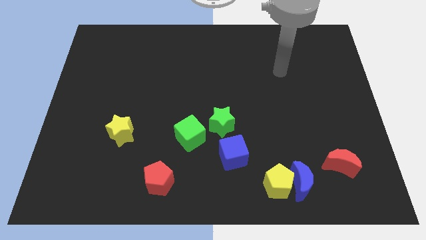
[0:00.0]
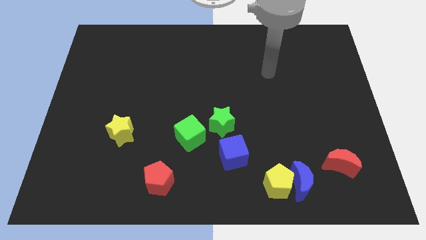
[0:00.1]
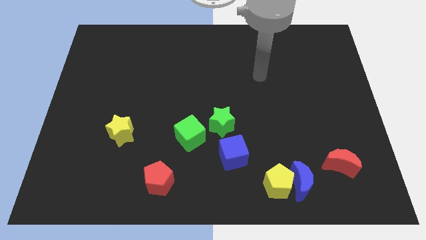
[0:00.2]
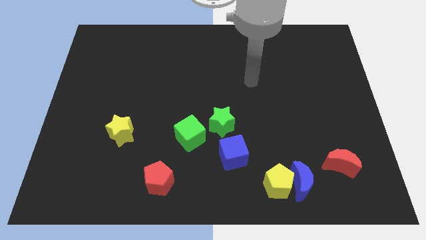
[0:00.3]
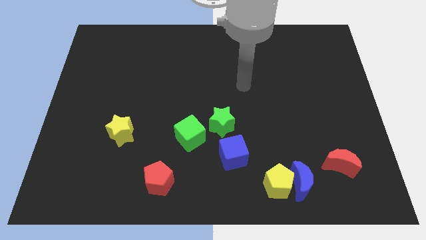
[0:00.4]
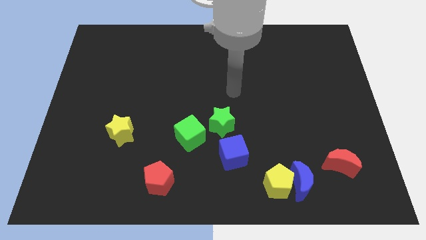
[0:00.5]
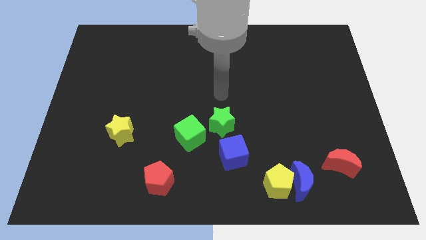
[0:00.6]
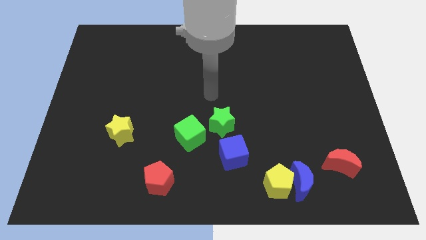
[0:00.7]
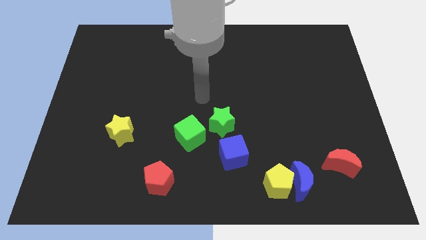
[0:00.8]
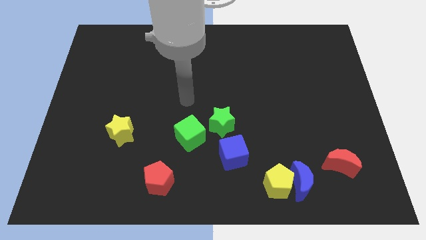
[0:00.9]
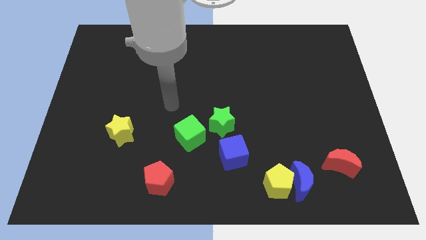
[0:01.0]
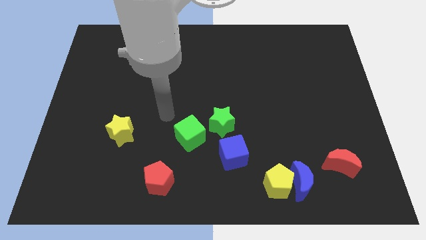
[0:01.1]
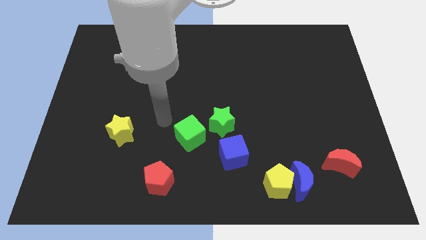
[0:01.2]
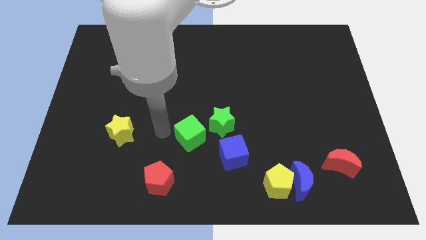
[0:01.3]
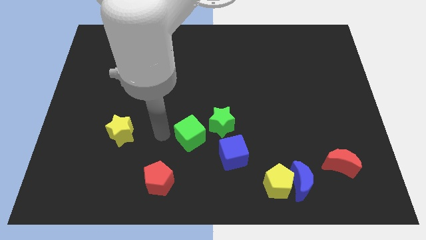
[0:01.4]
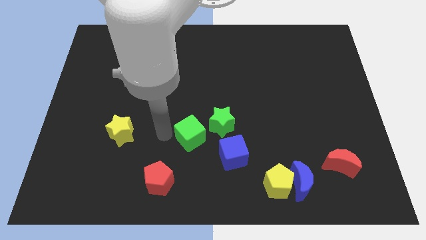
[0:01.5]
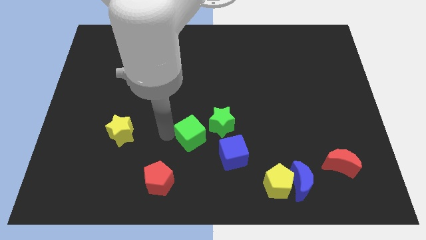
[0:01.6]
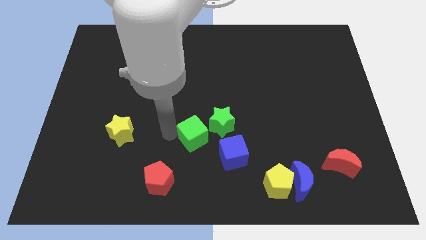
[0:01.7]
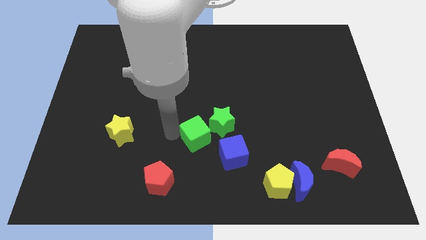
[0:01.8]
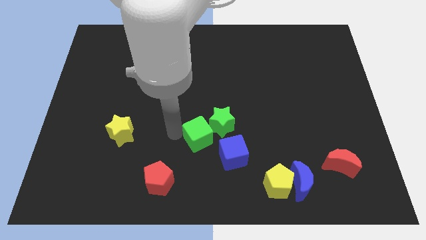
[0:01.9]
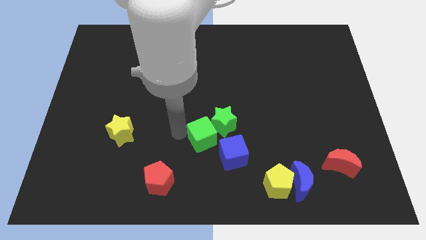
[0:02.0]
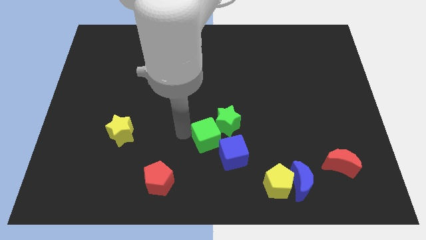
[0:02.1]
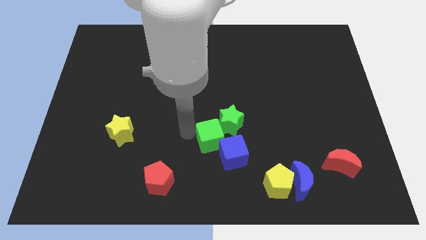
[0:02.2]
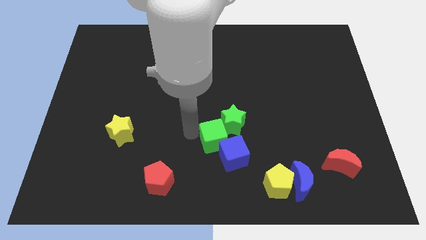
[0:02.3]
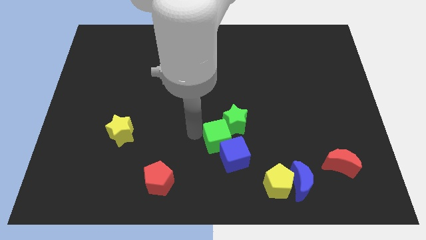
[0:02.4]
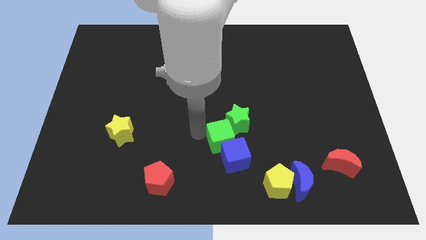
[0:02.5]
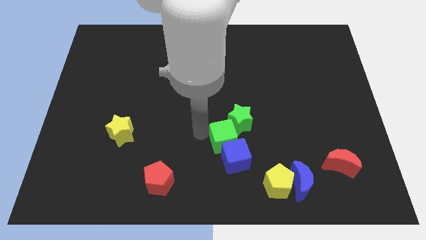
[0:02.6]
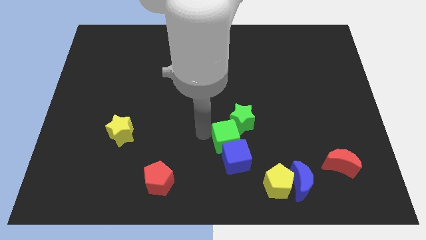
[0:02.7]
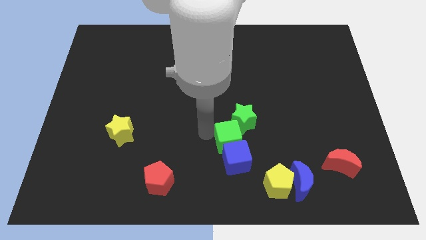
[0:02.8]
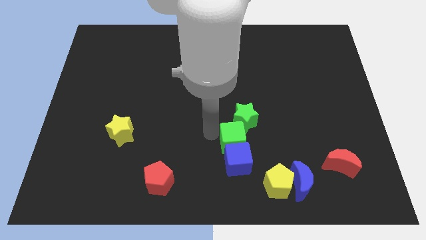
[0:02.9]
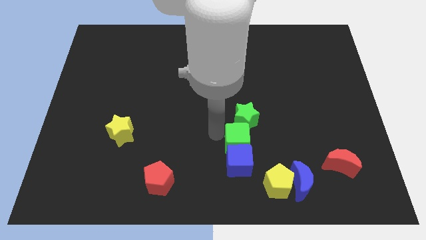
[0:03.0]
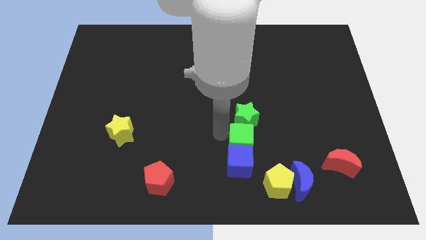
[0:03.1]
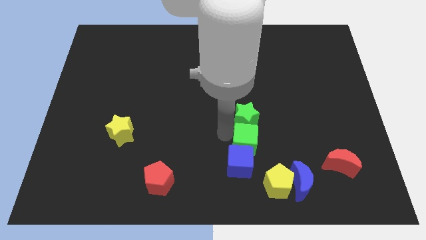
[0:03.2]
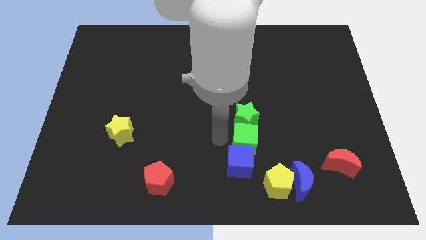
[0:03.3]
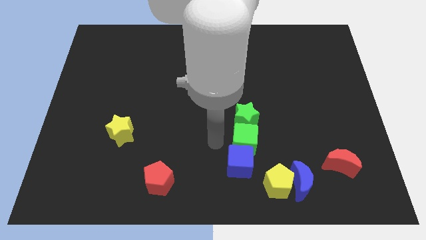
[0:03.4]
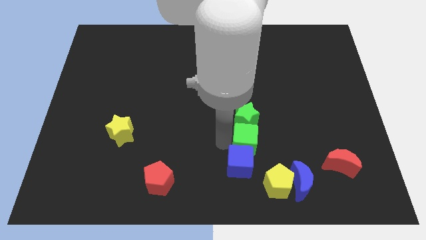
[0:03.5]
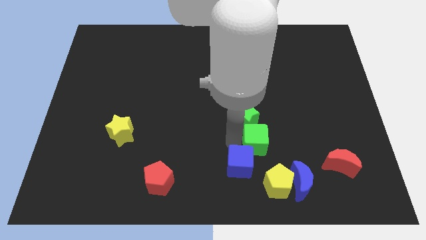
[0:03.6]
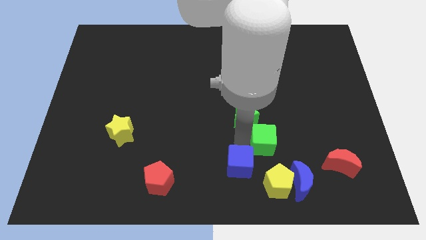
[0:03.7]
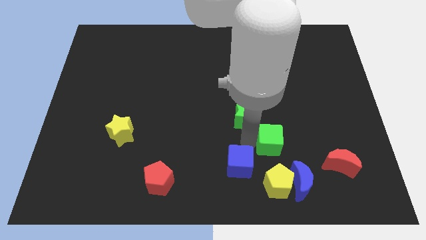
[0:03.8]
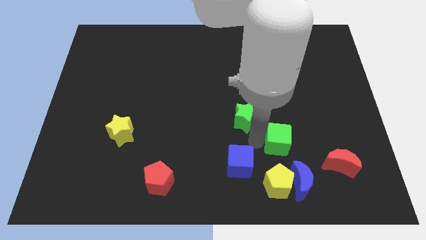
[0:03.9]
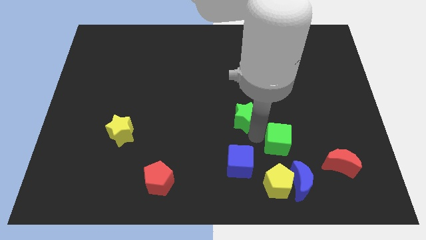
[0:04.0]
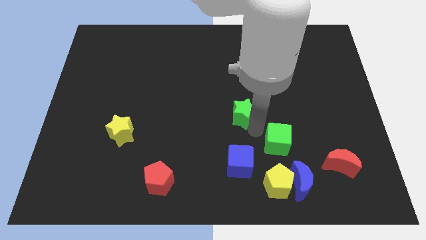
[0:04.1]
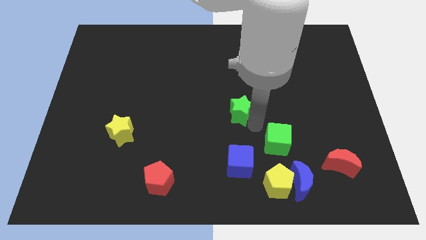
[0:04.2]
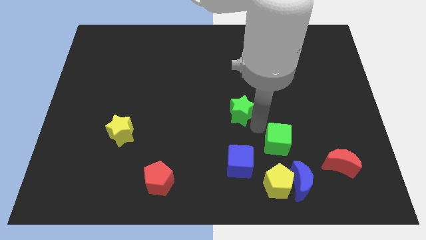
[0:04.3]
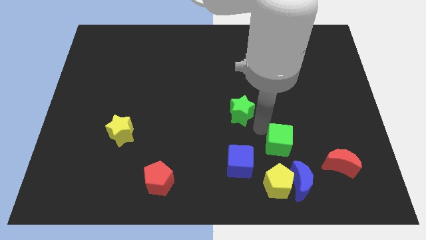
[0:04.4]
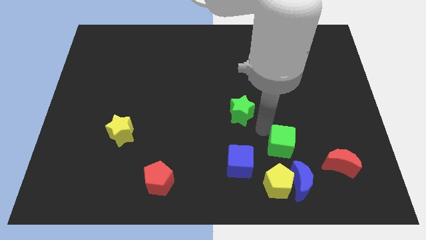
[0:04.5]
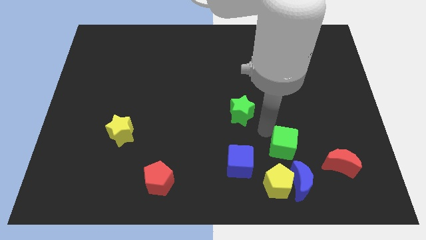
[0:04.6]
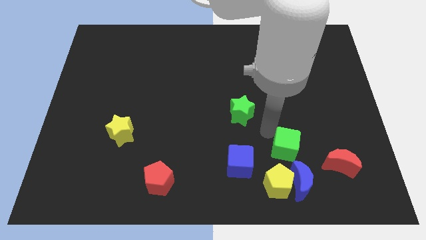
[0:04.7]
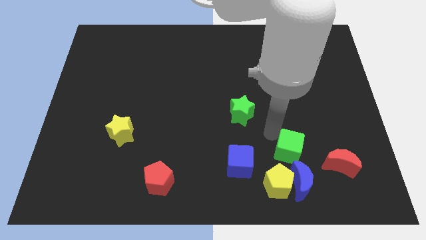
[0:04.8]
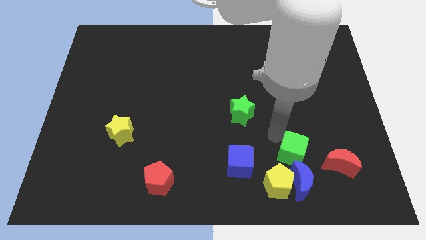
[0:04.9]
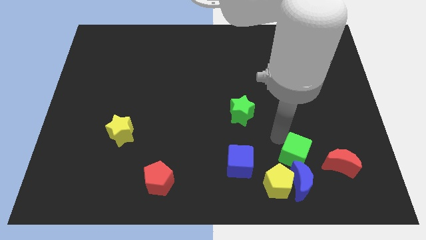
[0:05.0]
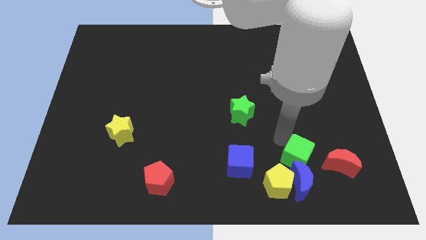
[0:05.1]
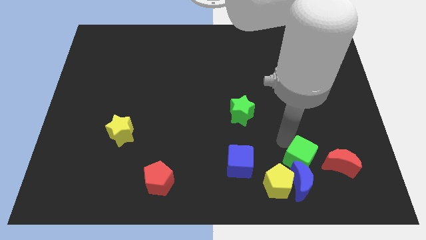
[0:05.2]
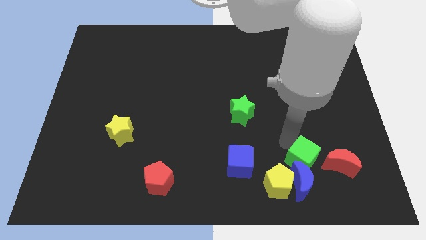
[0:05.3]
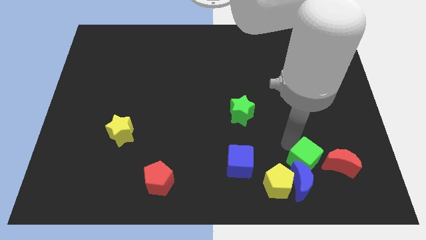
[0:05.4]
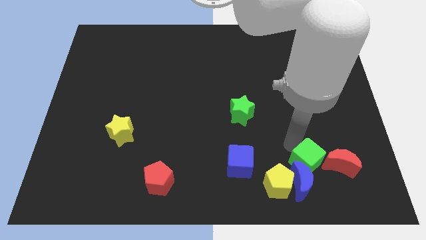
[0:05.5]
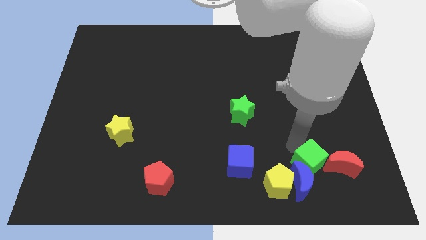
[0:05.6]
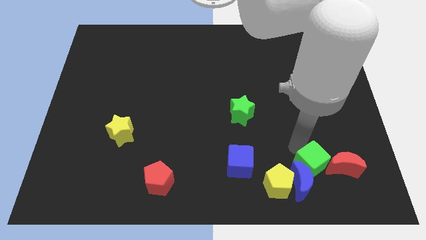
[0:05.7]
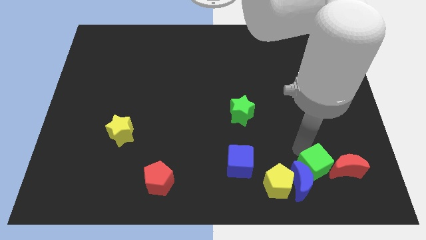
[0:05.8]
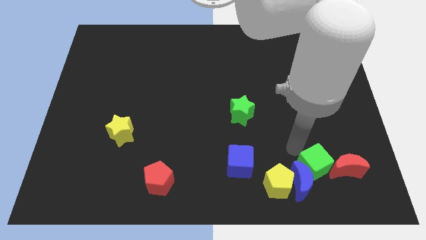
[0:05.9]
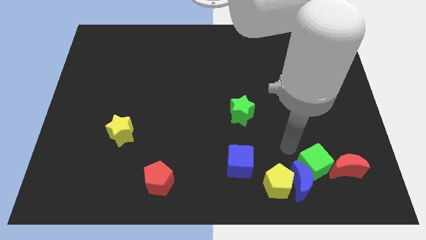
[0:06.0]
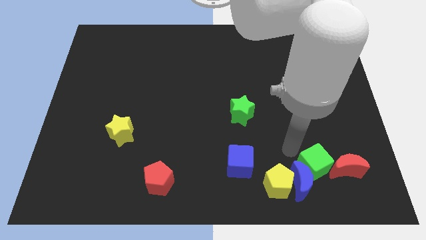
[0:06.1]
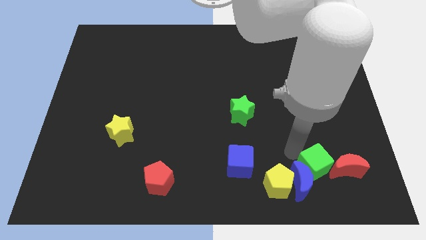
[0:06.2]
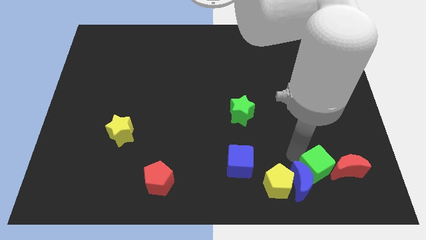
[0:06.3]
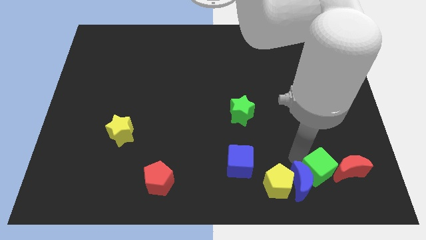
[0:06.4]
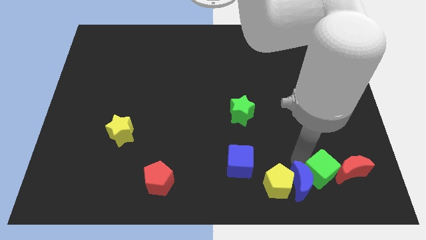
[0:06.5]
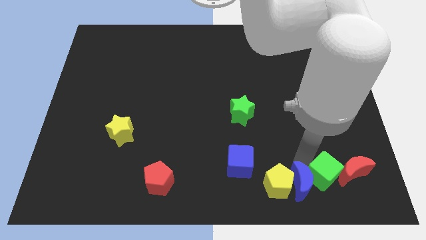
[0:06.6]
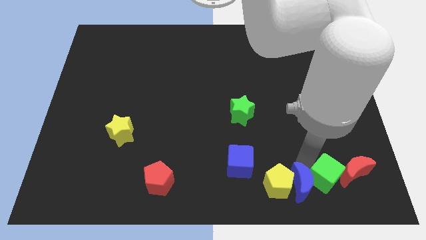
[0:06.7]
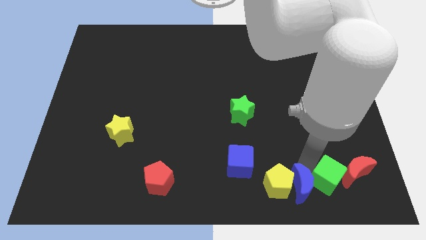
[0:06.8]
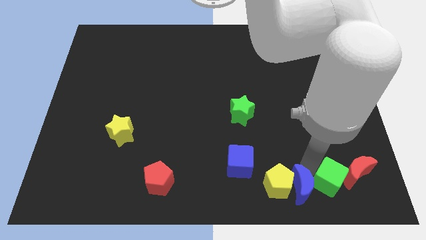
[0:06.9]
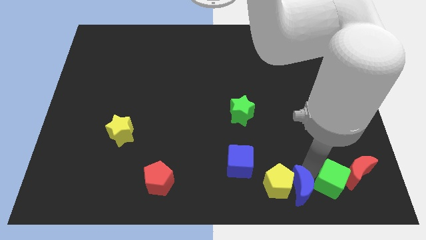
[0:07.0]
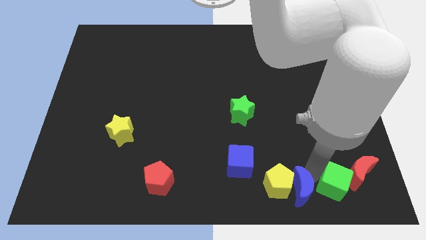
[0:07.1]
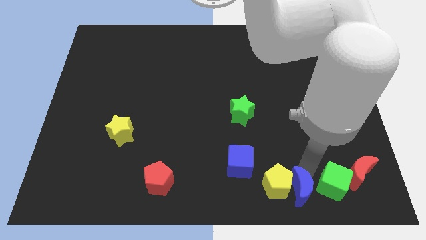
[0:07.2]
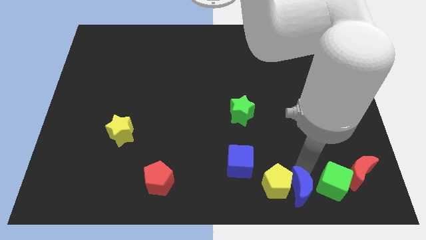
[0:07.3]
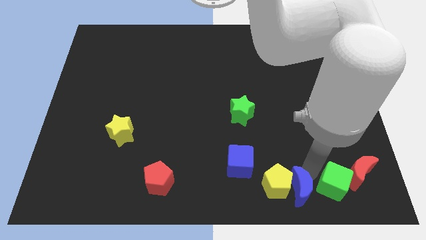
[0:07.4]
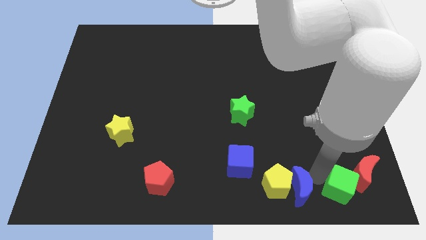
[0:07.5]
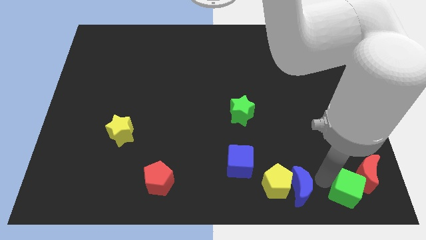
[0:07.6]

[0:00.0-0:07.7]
move the green cube to the bottom right of the board
